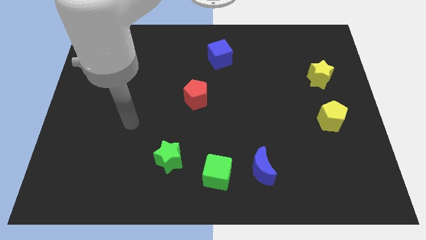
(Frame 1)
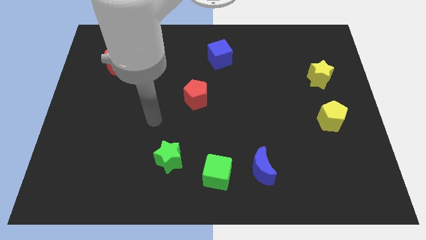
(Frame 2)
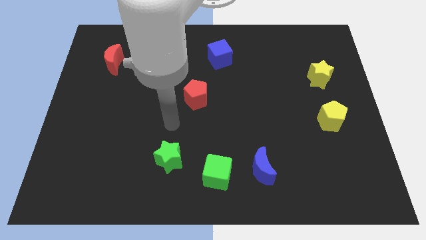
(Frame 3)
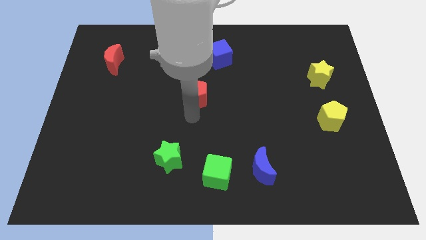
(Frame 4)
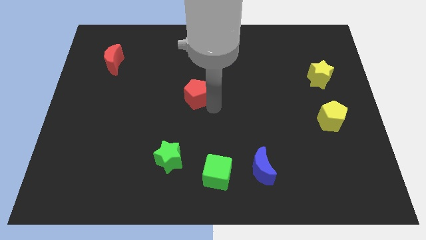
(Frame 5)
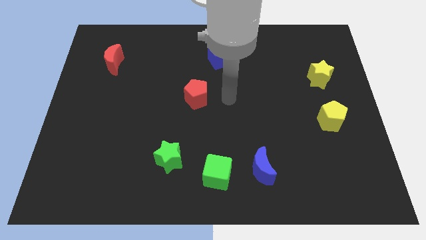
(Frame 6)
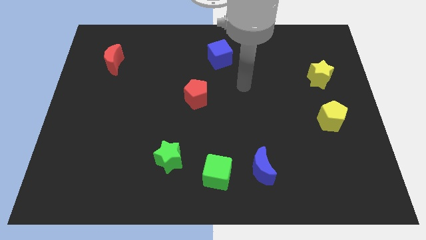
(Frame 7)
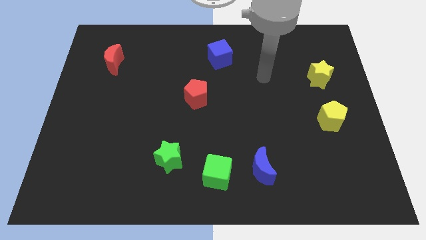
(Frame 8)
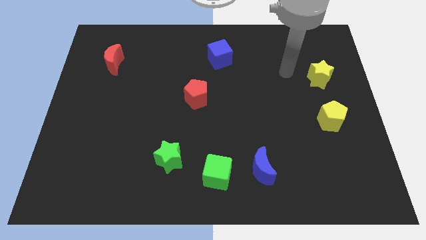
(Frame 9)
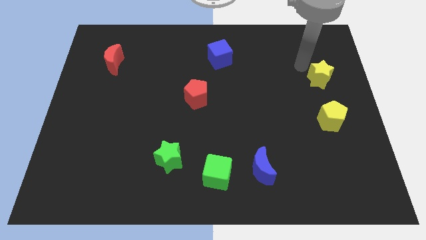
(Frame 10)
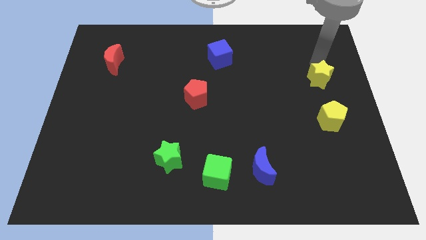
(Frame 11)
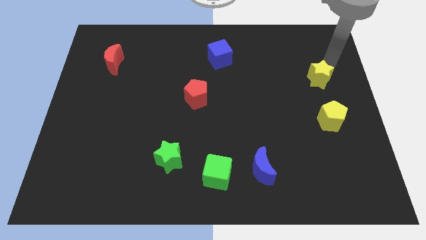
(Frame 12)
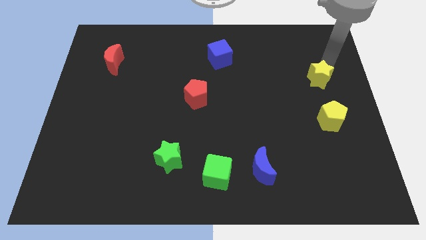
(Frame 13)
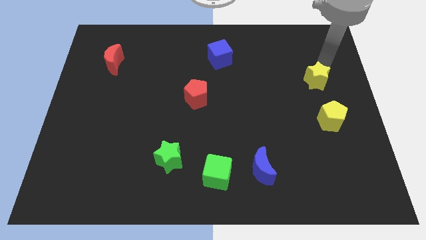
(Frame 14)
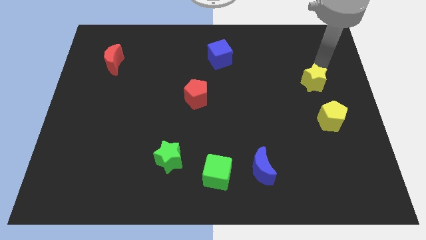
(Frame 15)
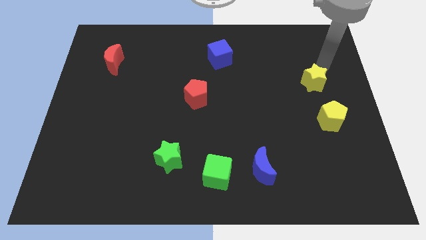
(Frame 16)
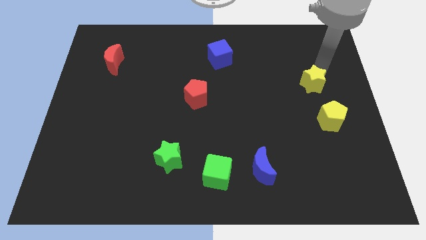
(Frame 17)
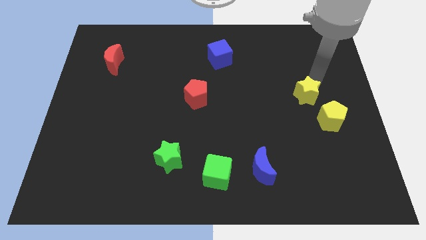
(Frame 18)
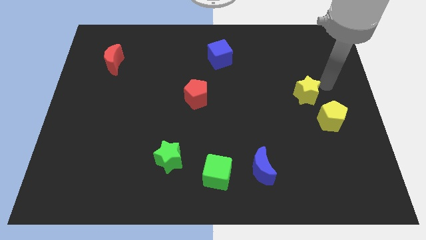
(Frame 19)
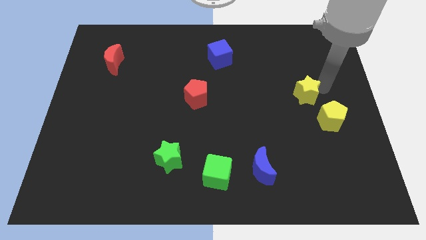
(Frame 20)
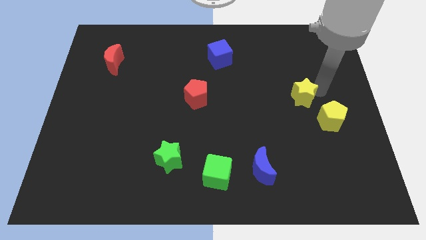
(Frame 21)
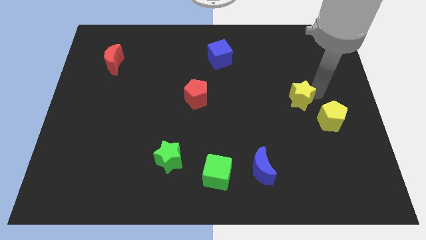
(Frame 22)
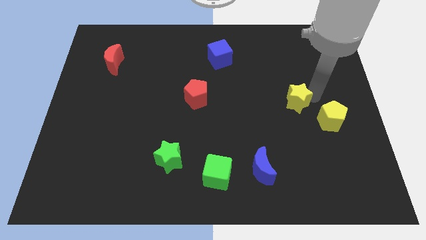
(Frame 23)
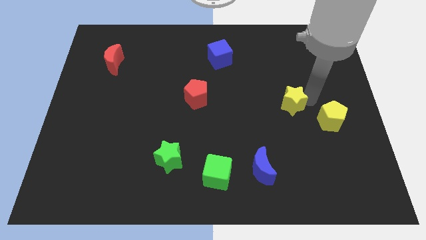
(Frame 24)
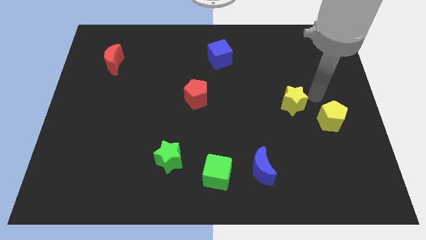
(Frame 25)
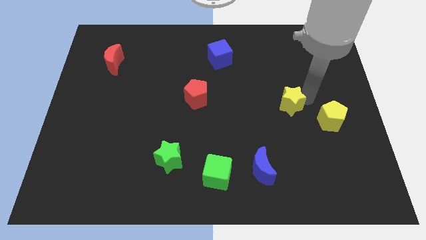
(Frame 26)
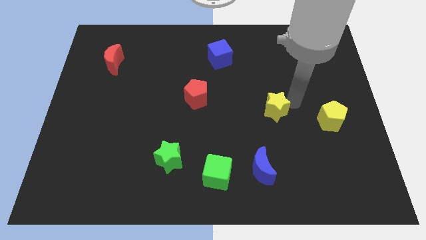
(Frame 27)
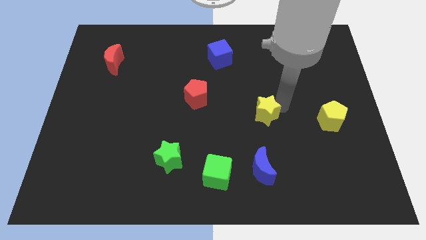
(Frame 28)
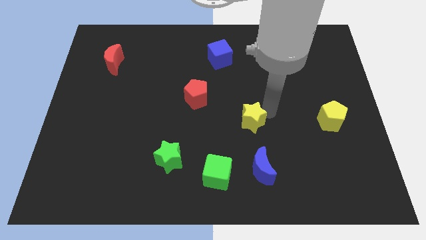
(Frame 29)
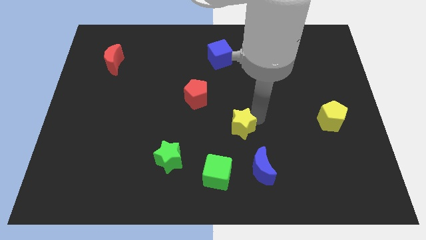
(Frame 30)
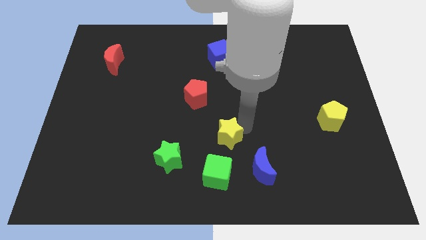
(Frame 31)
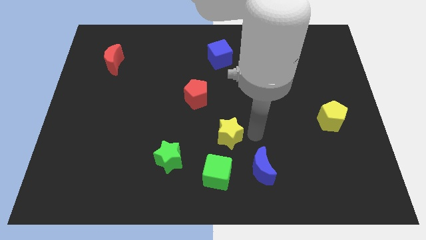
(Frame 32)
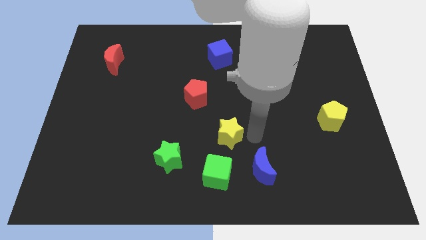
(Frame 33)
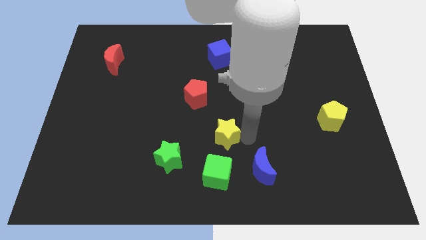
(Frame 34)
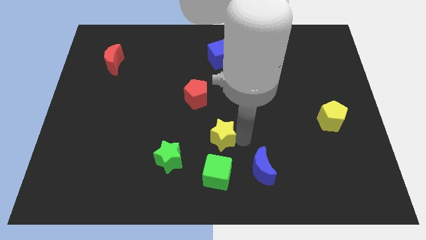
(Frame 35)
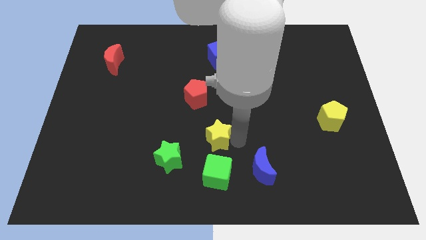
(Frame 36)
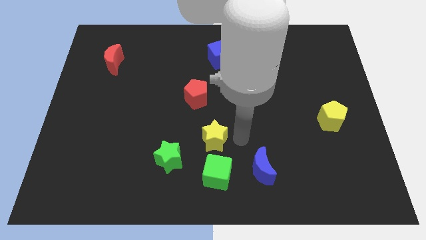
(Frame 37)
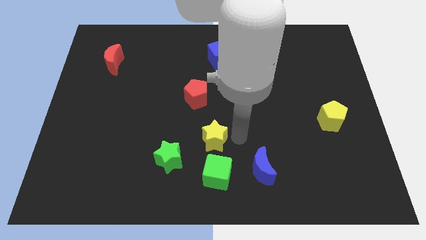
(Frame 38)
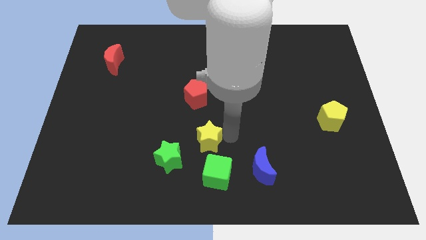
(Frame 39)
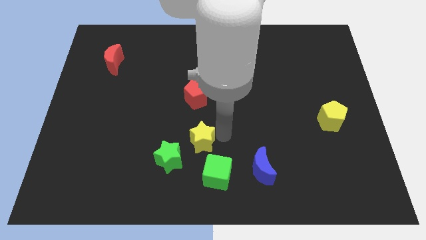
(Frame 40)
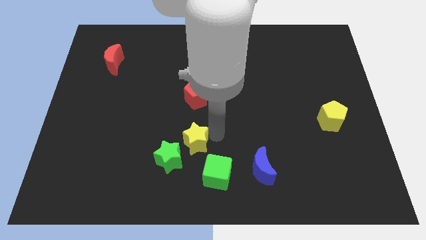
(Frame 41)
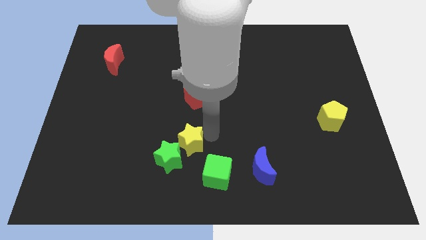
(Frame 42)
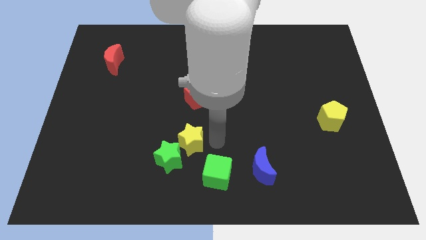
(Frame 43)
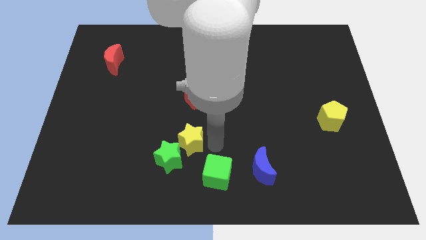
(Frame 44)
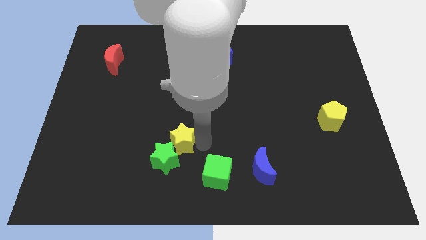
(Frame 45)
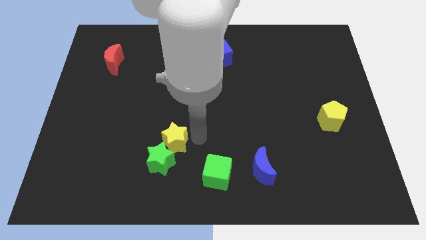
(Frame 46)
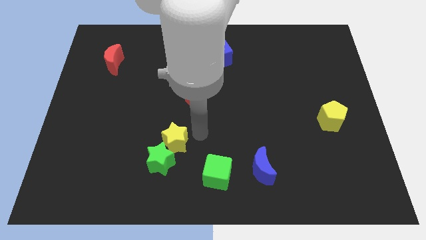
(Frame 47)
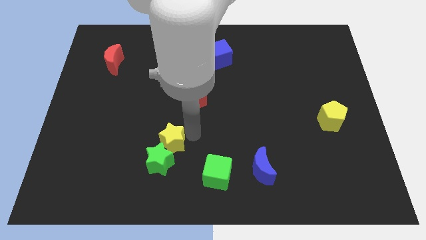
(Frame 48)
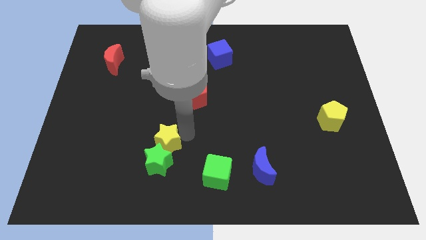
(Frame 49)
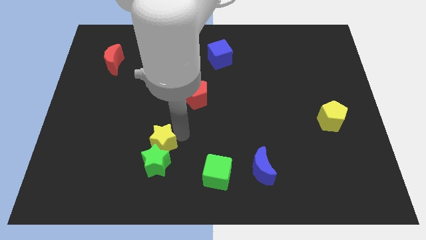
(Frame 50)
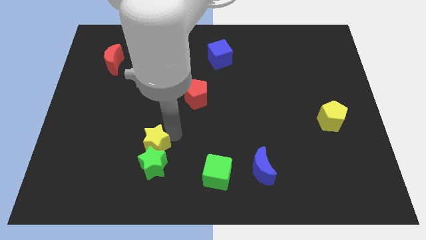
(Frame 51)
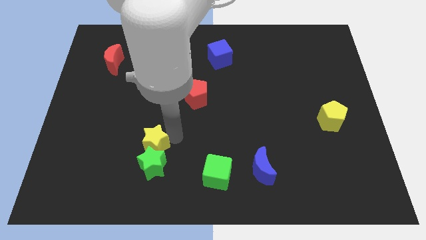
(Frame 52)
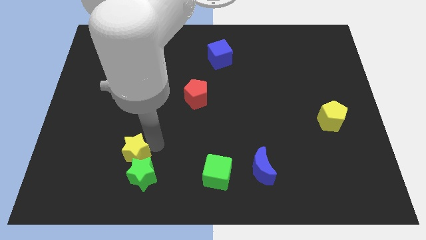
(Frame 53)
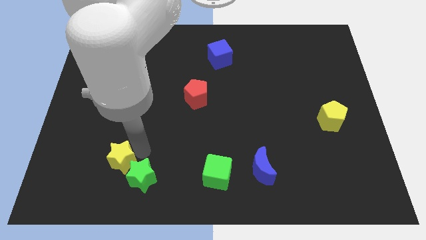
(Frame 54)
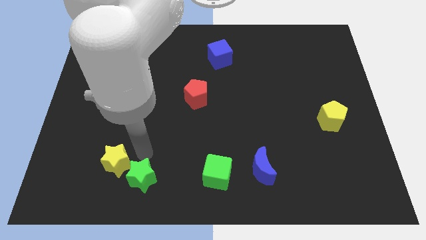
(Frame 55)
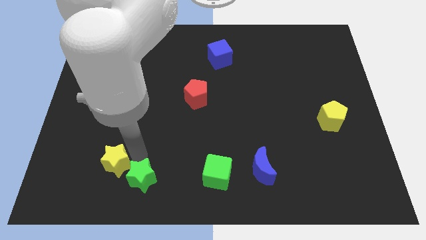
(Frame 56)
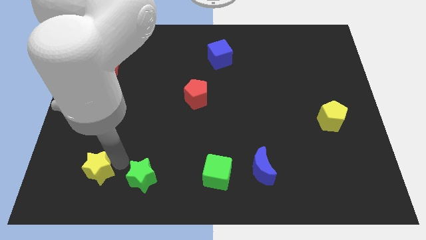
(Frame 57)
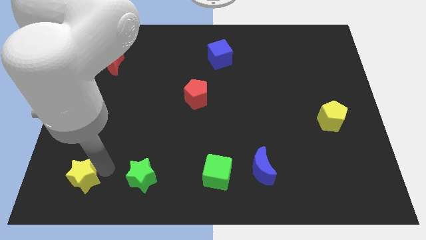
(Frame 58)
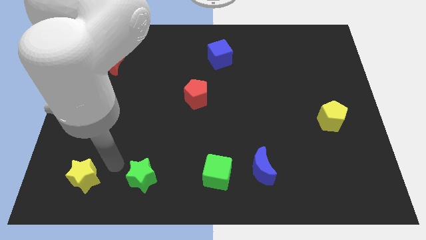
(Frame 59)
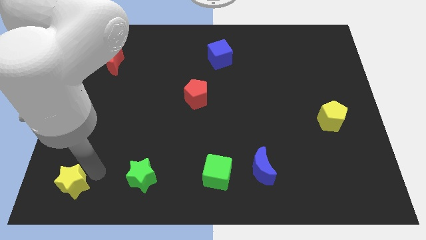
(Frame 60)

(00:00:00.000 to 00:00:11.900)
push the yellow star to the bottom left corner
